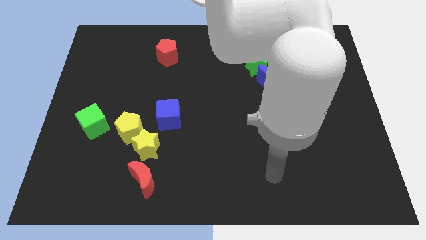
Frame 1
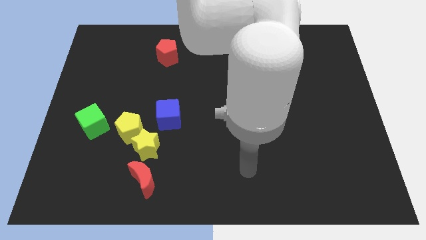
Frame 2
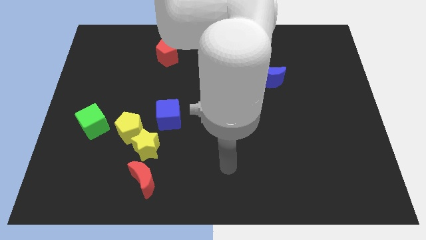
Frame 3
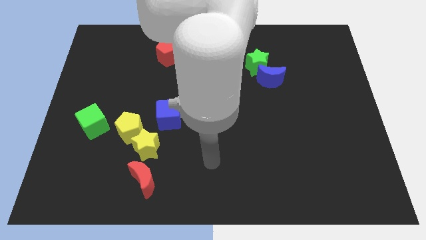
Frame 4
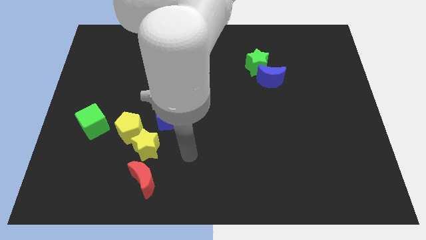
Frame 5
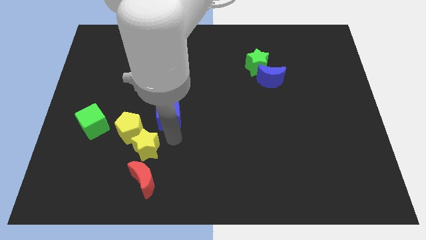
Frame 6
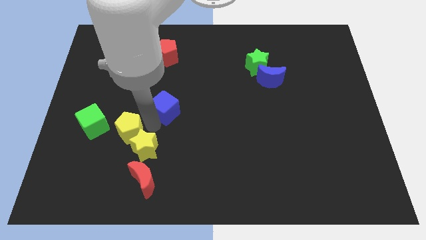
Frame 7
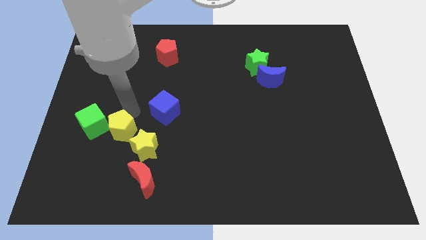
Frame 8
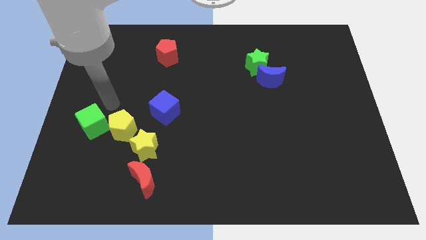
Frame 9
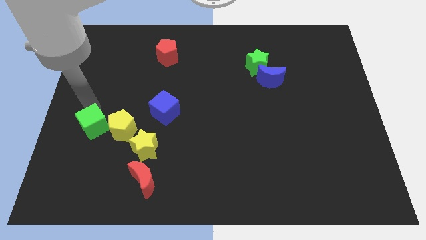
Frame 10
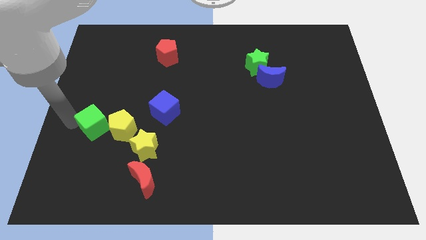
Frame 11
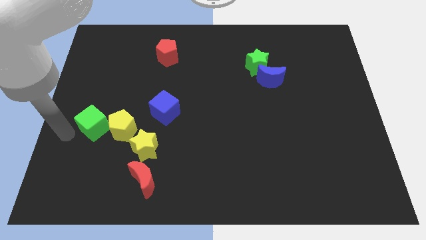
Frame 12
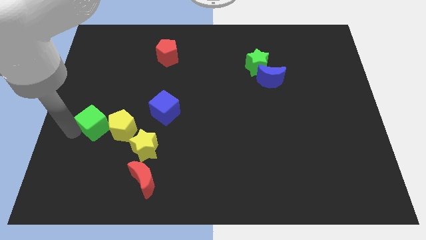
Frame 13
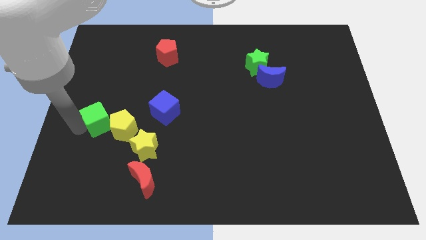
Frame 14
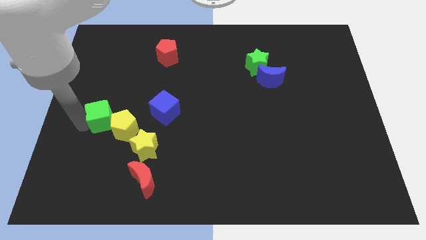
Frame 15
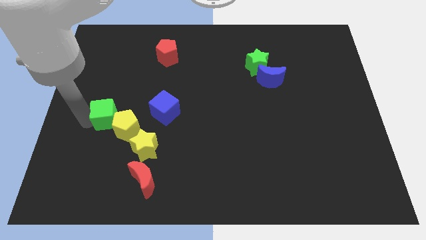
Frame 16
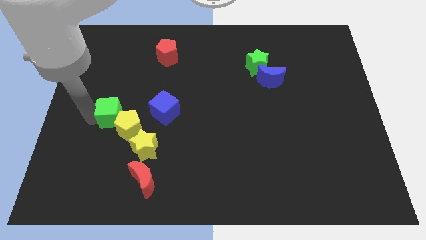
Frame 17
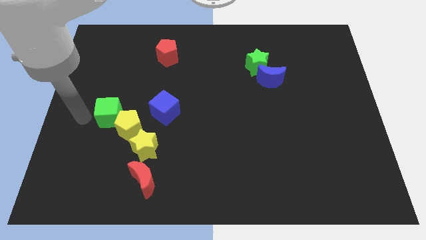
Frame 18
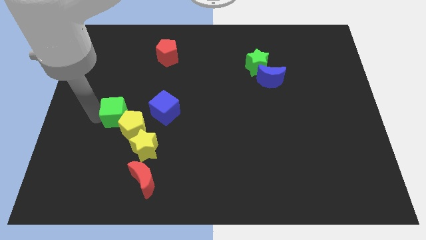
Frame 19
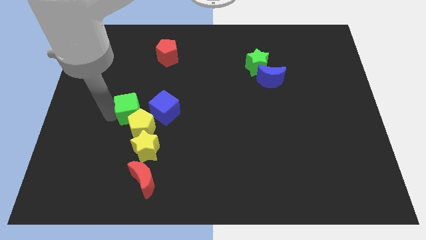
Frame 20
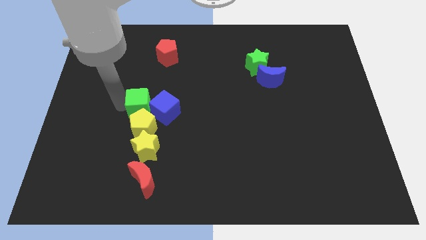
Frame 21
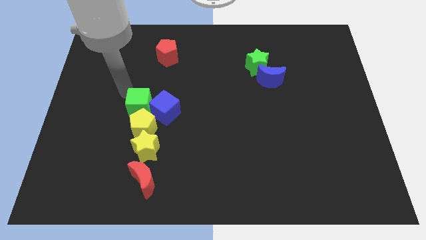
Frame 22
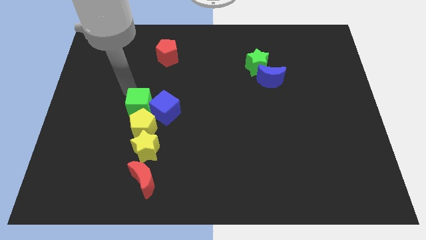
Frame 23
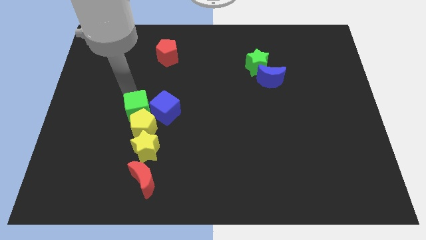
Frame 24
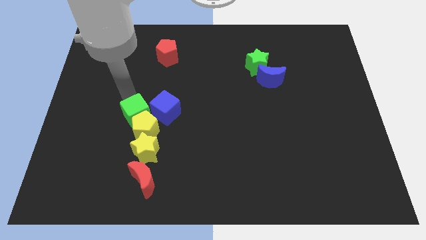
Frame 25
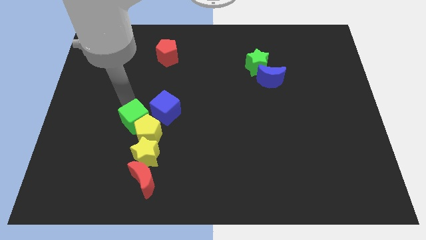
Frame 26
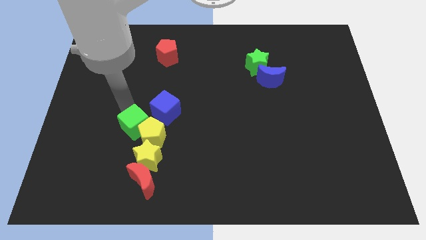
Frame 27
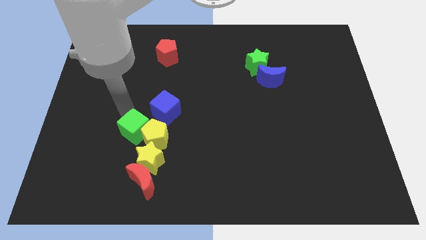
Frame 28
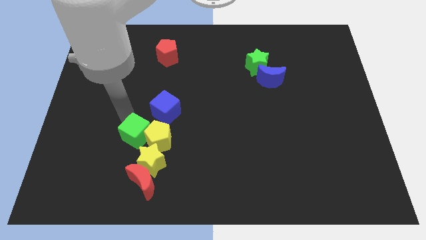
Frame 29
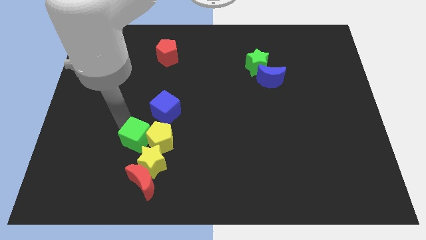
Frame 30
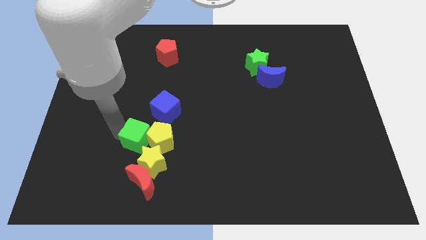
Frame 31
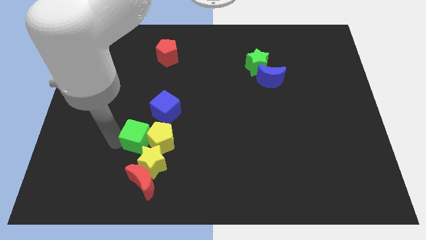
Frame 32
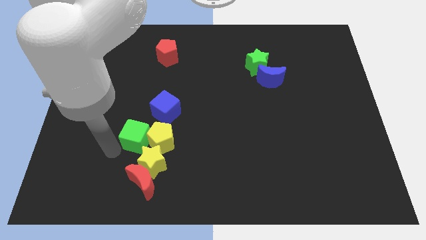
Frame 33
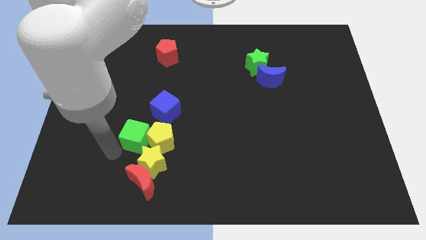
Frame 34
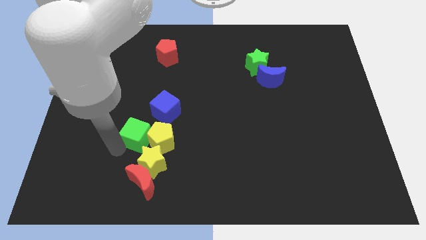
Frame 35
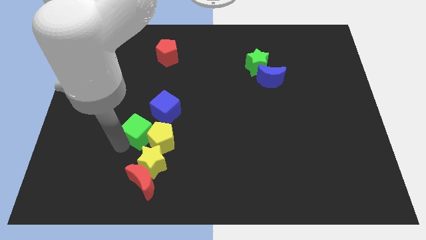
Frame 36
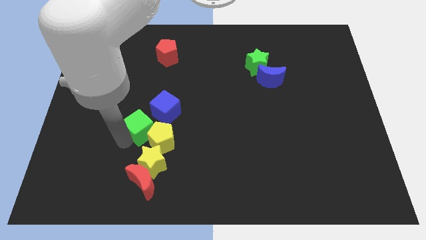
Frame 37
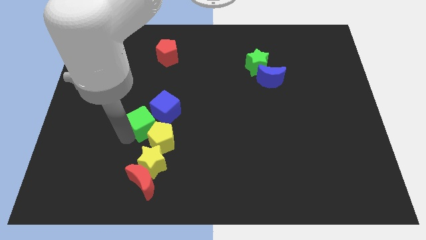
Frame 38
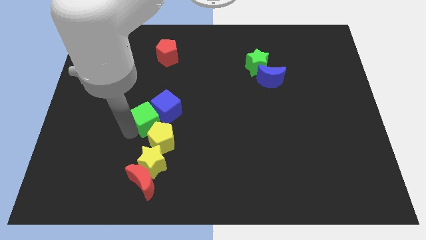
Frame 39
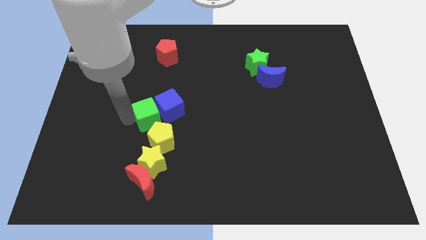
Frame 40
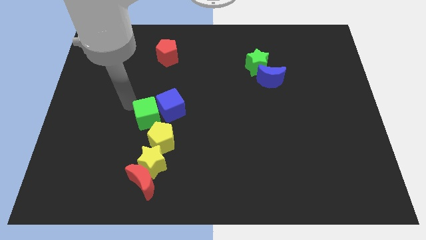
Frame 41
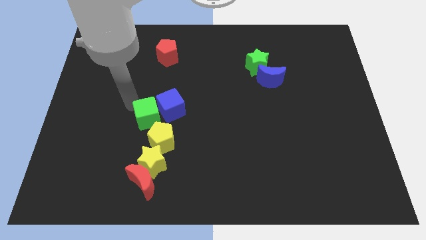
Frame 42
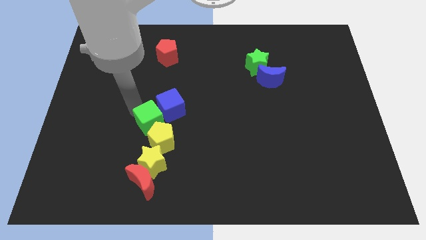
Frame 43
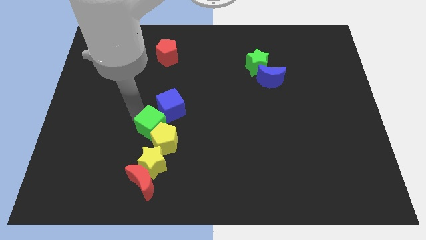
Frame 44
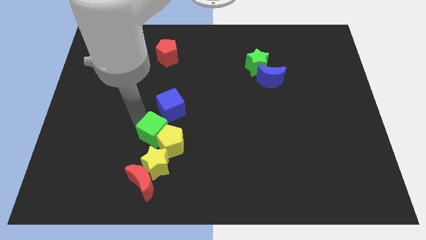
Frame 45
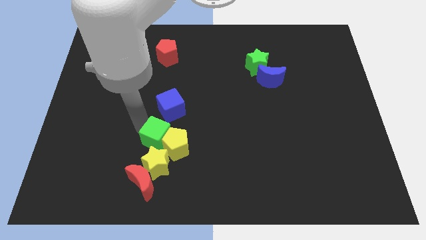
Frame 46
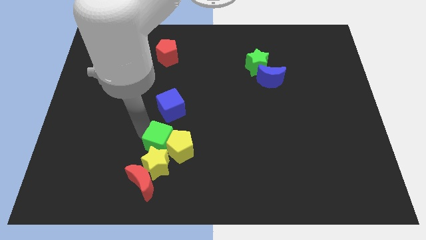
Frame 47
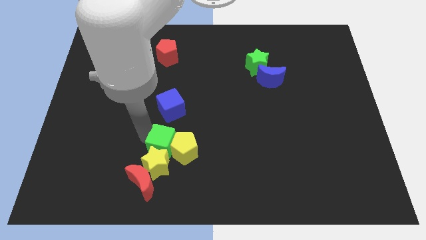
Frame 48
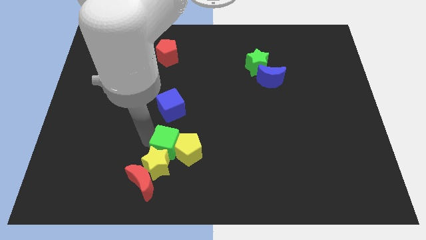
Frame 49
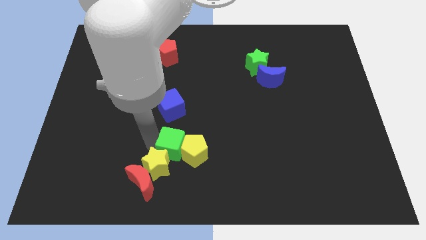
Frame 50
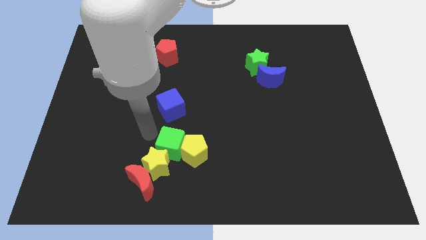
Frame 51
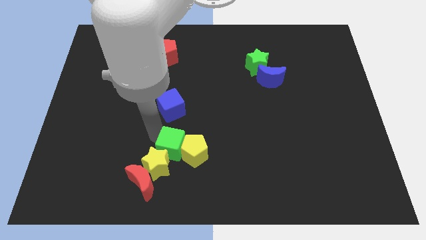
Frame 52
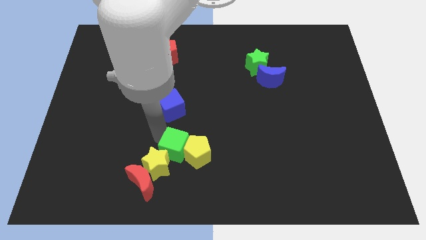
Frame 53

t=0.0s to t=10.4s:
slide the green cube just right of the yellow star

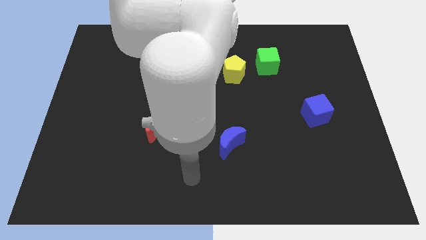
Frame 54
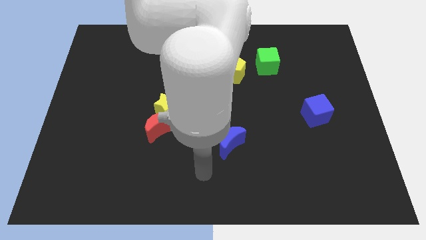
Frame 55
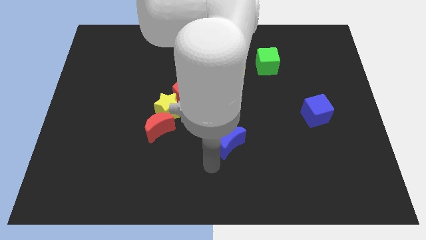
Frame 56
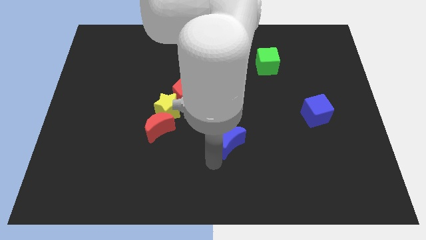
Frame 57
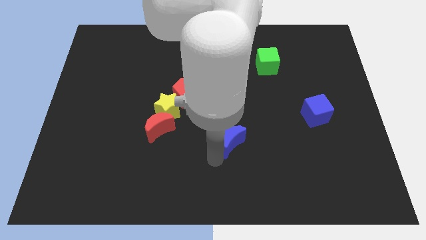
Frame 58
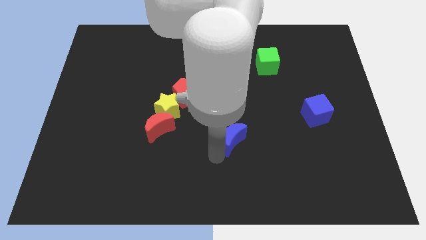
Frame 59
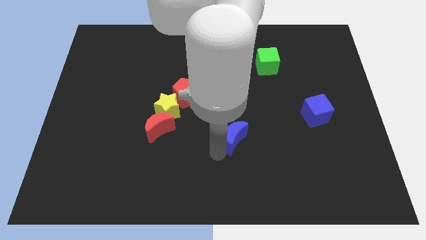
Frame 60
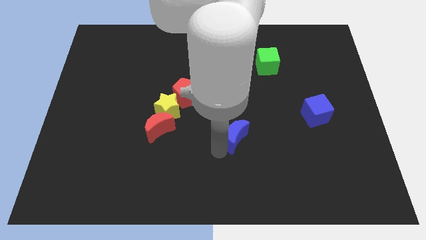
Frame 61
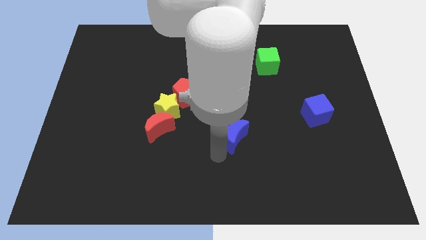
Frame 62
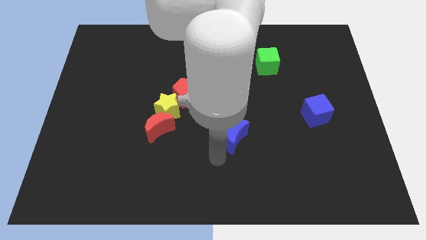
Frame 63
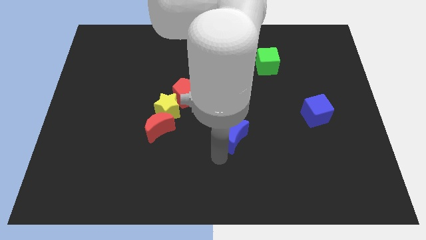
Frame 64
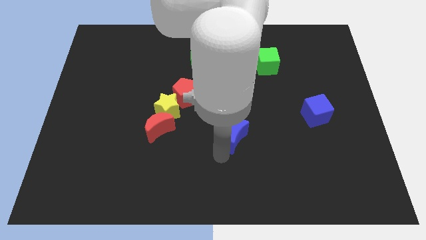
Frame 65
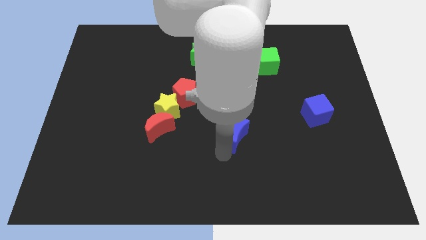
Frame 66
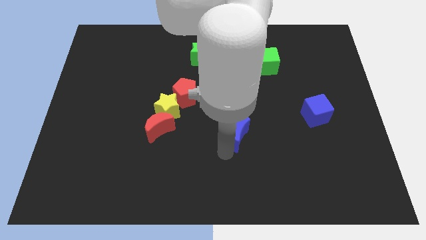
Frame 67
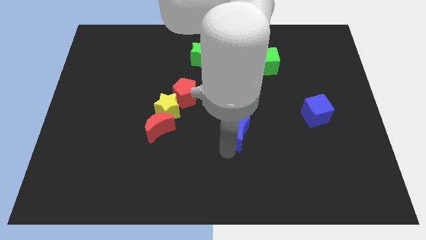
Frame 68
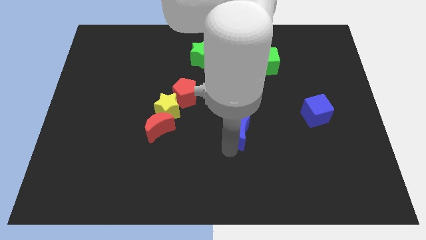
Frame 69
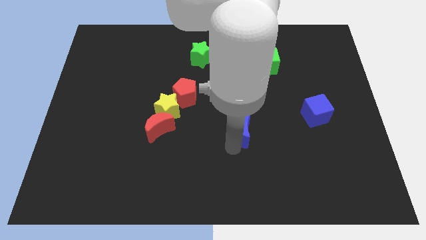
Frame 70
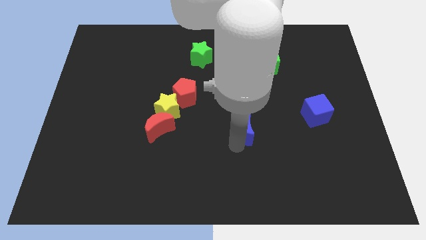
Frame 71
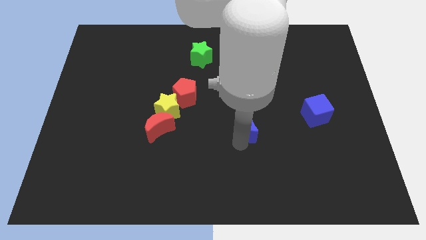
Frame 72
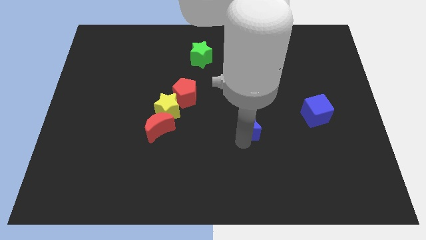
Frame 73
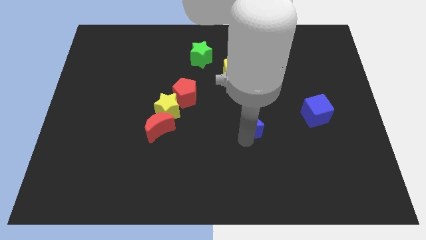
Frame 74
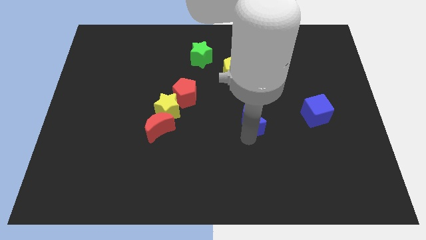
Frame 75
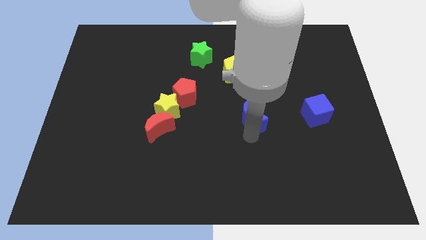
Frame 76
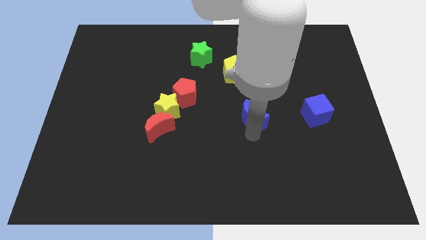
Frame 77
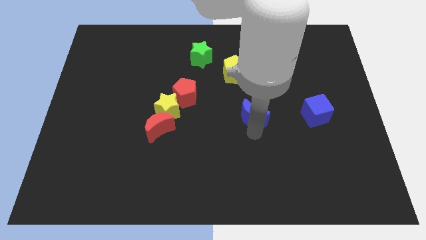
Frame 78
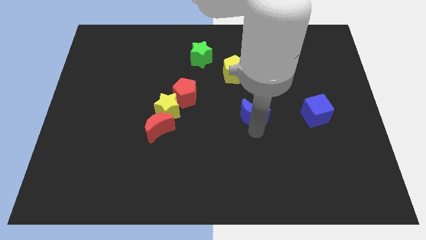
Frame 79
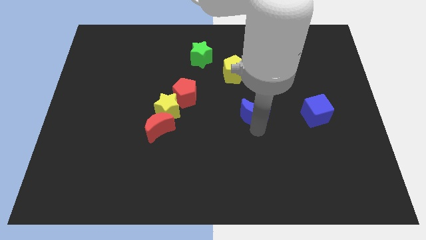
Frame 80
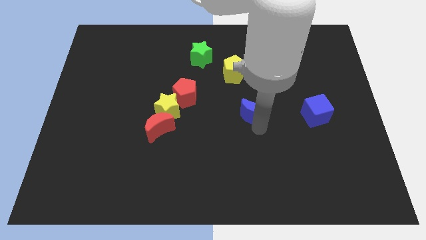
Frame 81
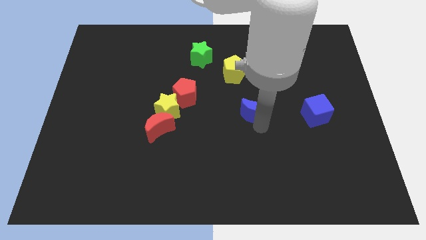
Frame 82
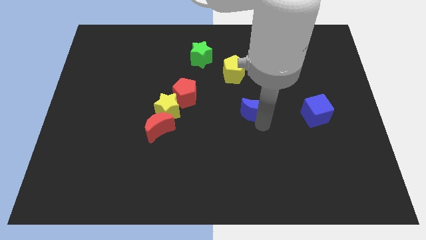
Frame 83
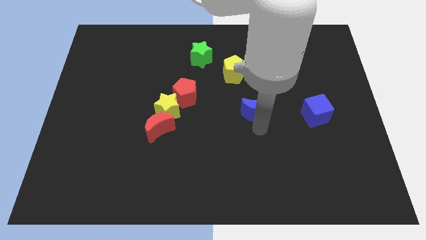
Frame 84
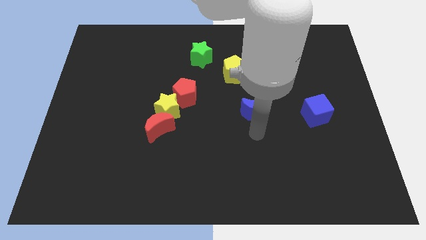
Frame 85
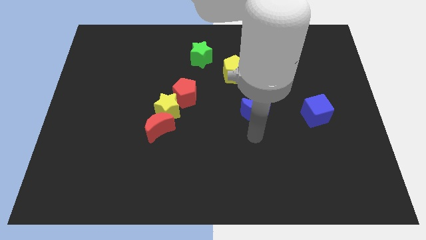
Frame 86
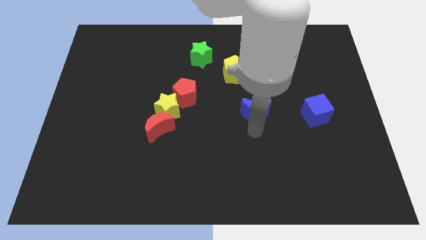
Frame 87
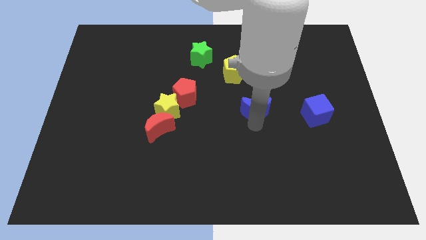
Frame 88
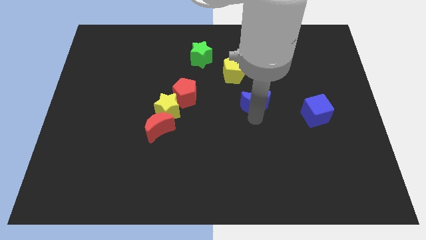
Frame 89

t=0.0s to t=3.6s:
move the blue moon diagonally down and to the right of the yellow pentagon
